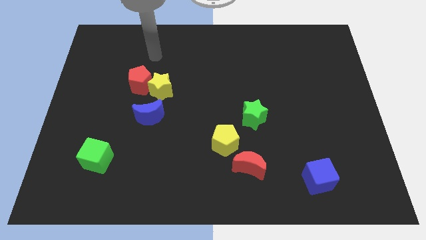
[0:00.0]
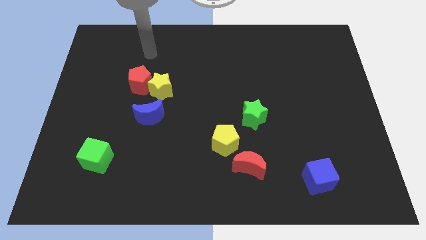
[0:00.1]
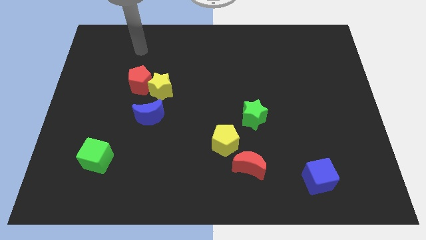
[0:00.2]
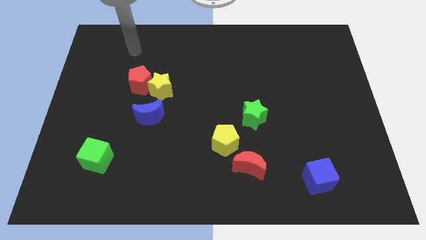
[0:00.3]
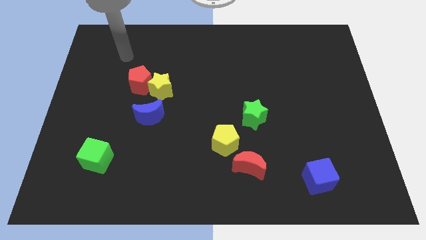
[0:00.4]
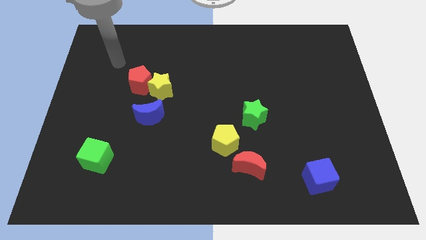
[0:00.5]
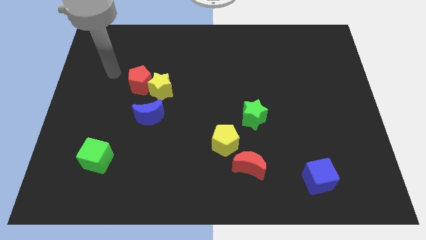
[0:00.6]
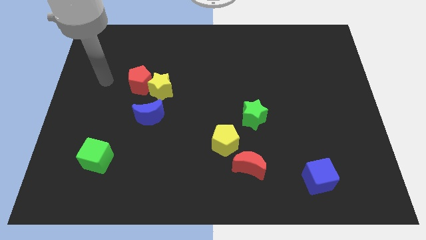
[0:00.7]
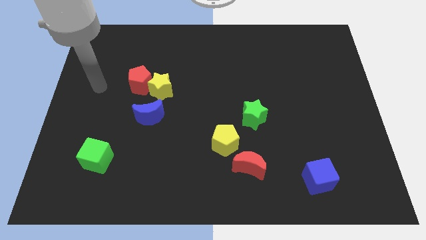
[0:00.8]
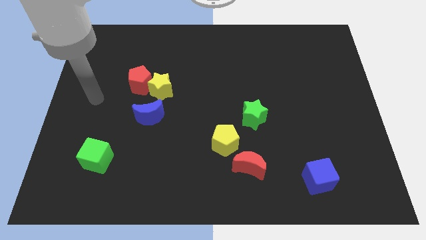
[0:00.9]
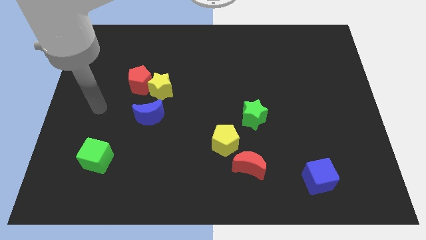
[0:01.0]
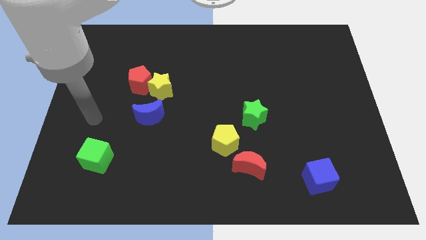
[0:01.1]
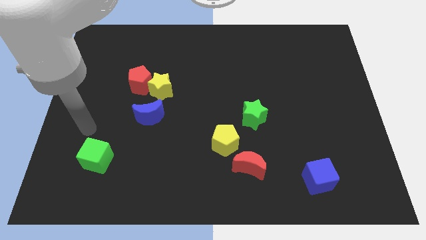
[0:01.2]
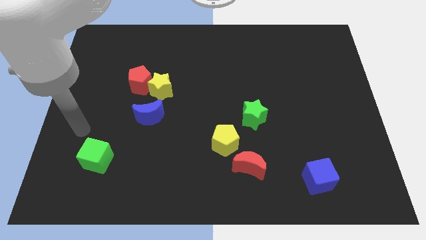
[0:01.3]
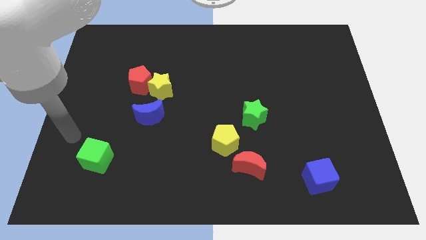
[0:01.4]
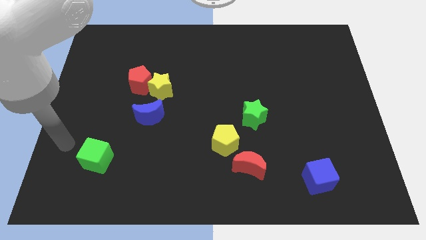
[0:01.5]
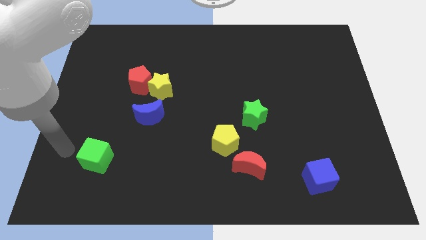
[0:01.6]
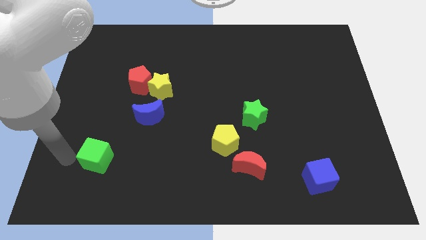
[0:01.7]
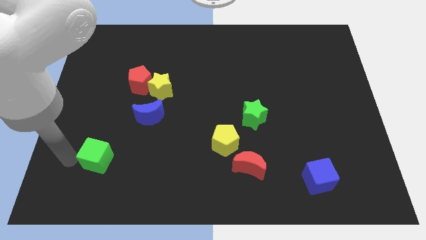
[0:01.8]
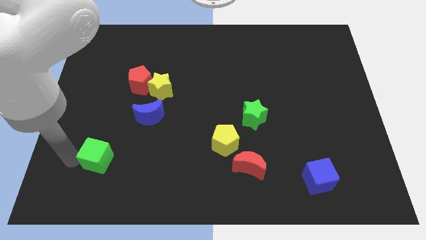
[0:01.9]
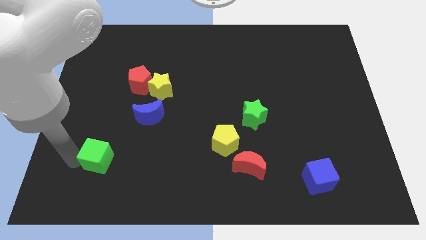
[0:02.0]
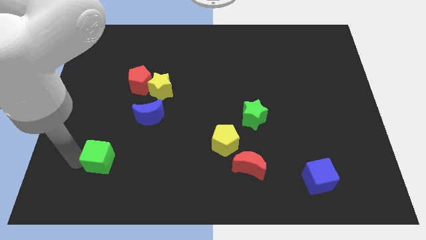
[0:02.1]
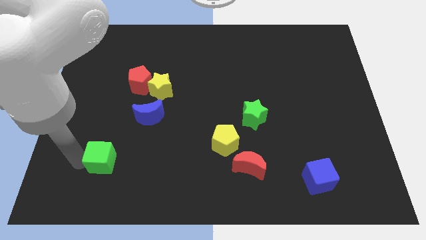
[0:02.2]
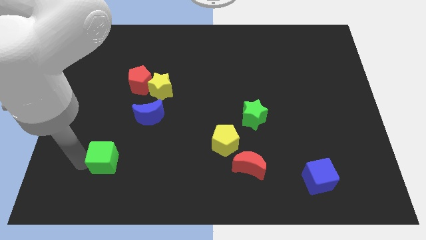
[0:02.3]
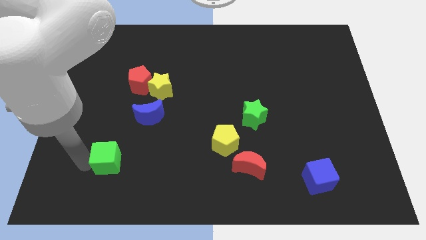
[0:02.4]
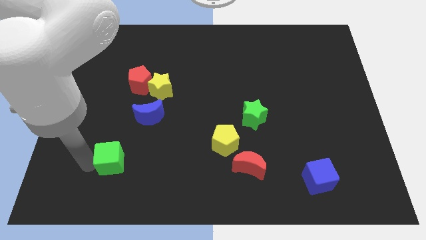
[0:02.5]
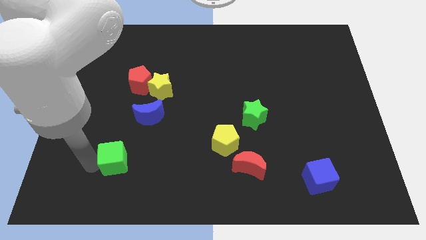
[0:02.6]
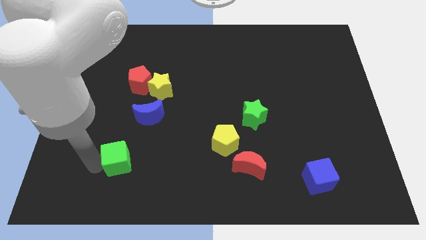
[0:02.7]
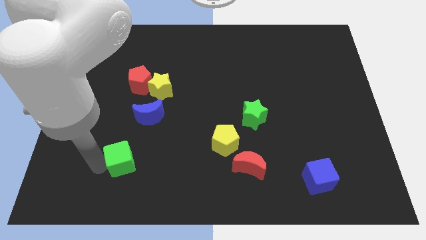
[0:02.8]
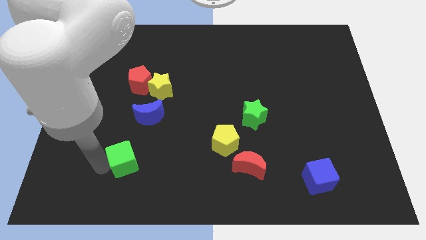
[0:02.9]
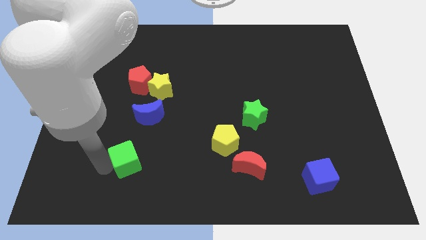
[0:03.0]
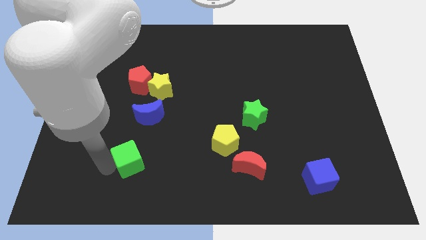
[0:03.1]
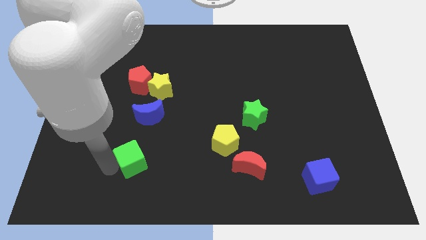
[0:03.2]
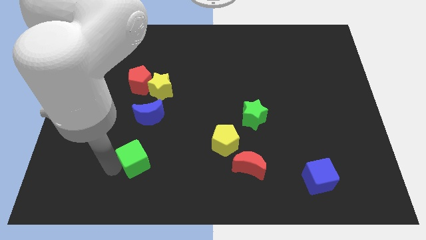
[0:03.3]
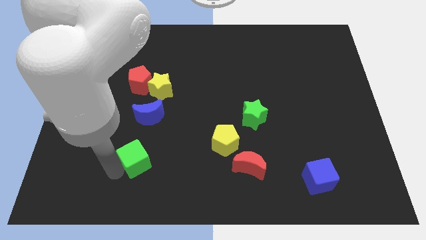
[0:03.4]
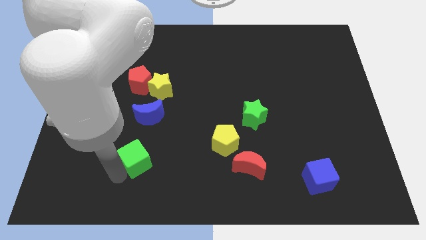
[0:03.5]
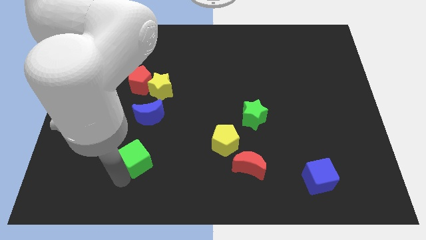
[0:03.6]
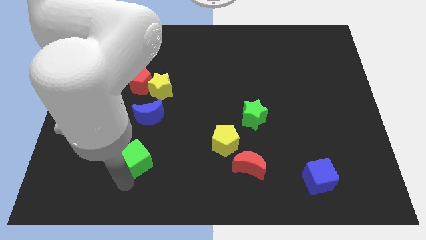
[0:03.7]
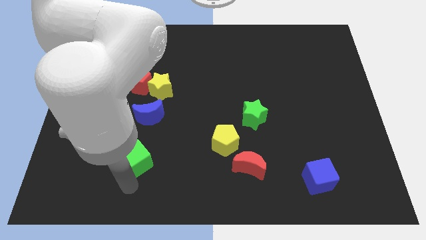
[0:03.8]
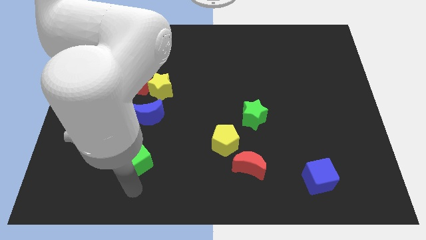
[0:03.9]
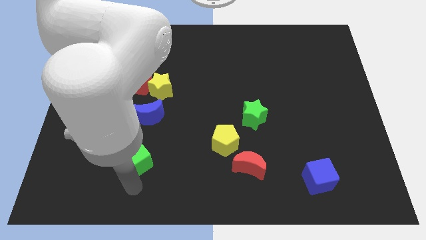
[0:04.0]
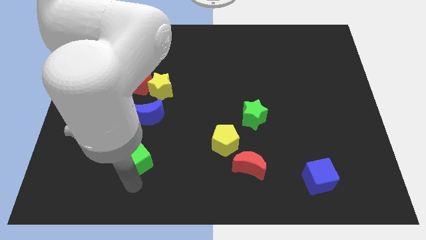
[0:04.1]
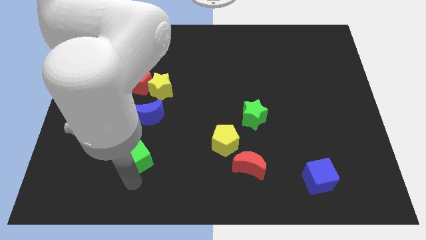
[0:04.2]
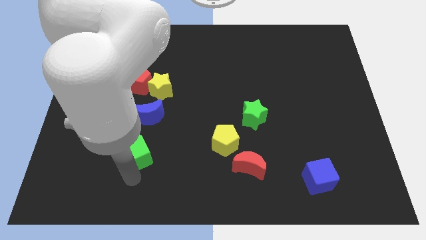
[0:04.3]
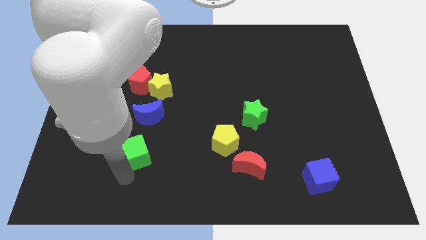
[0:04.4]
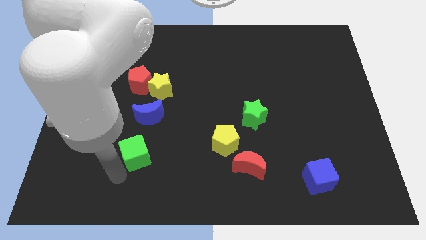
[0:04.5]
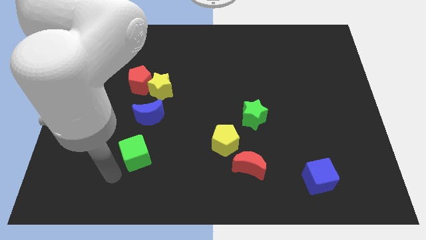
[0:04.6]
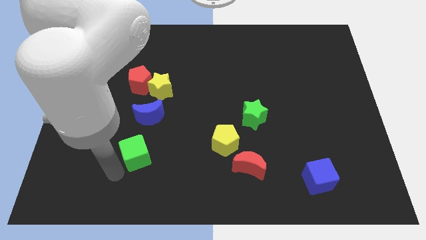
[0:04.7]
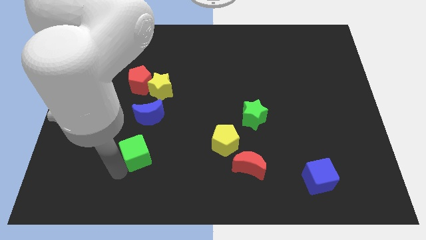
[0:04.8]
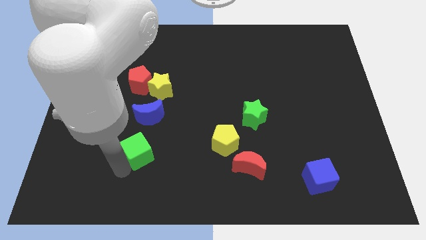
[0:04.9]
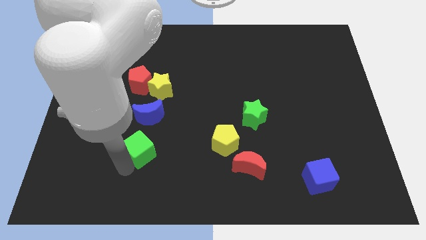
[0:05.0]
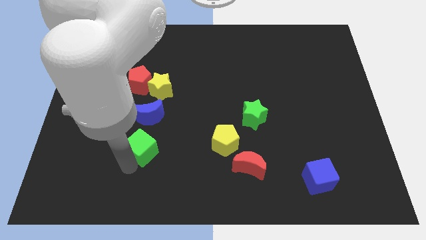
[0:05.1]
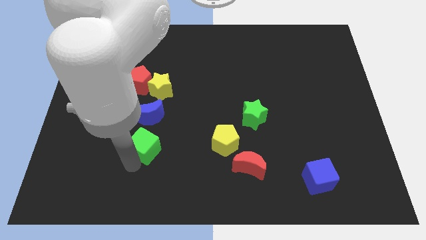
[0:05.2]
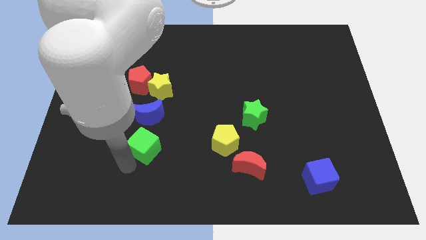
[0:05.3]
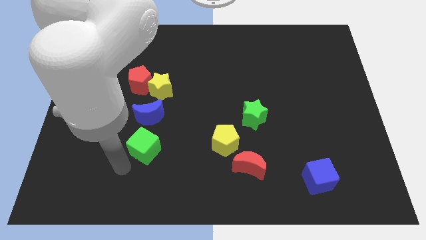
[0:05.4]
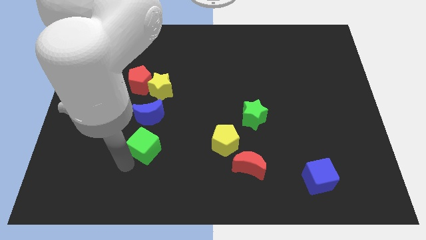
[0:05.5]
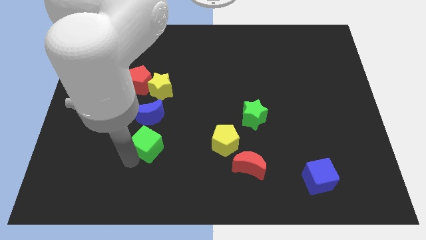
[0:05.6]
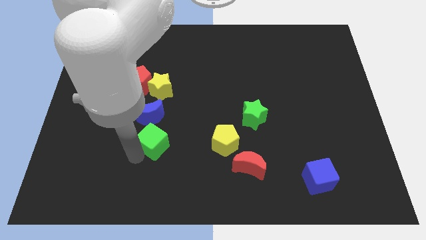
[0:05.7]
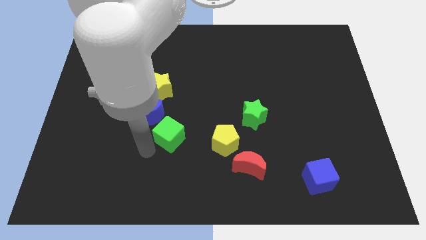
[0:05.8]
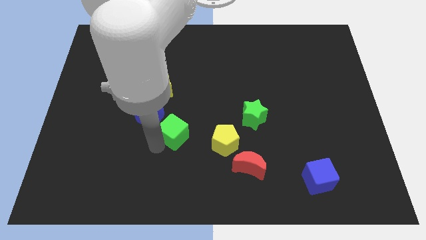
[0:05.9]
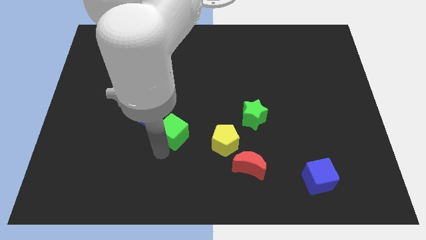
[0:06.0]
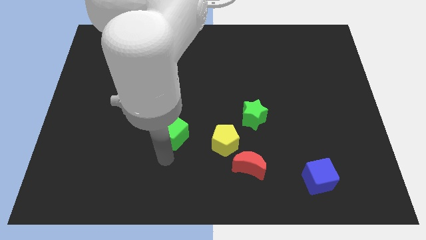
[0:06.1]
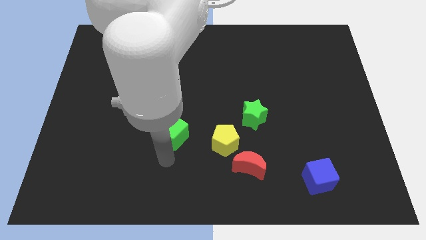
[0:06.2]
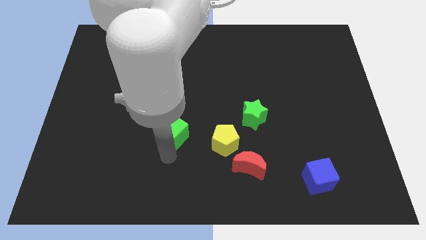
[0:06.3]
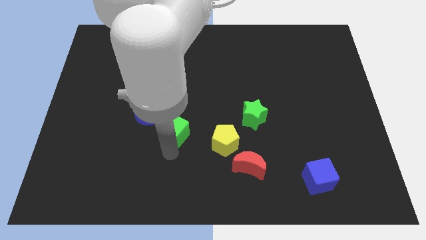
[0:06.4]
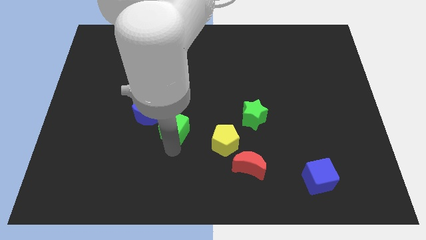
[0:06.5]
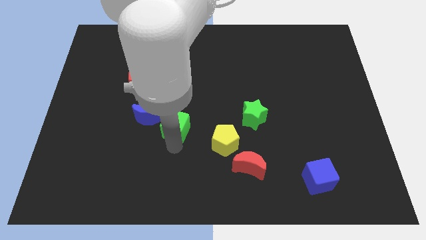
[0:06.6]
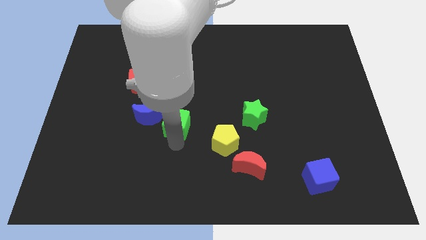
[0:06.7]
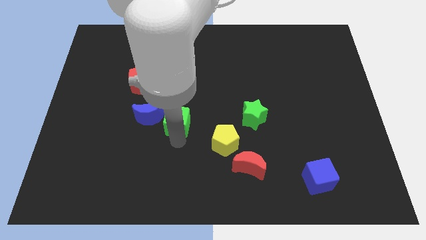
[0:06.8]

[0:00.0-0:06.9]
move the green cube diagonally down and to the right of the yellow star

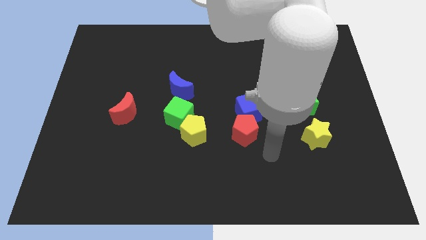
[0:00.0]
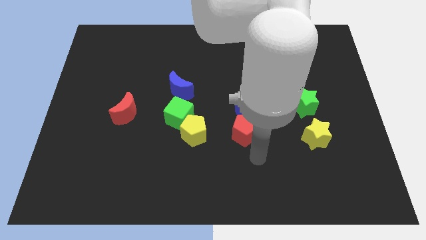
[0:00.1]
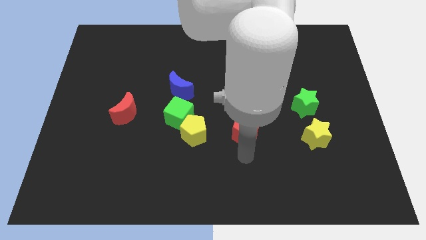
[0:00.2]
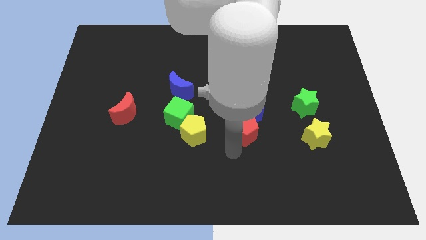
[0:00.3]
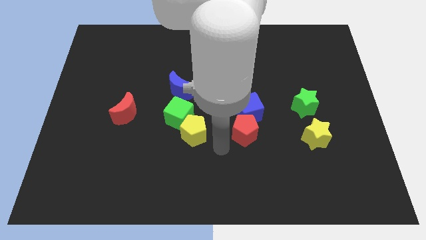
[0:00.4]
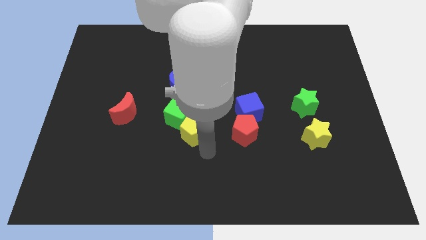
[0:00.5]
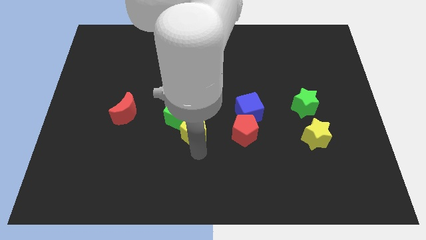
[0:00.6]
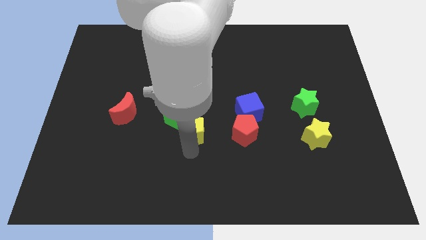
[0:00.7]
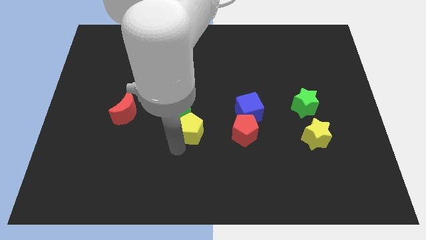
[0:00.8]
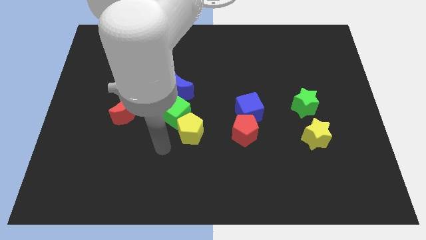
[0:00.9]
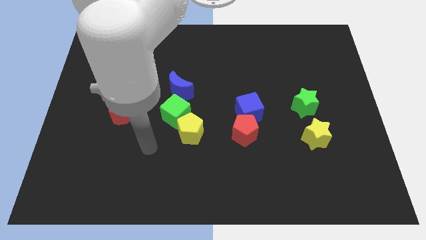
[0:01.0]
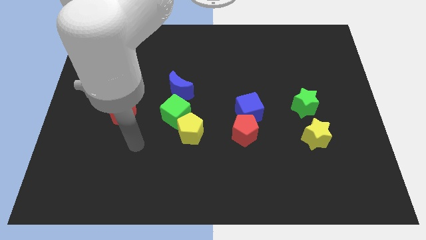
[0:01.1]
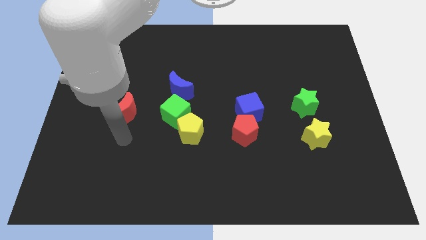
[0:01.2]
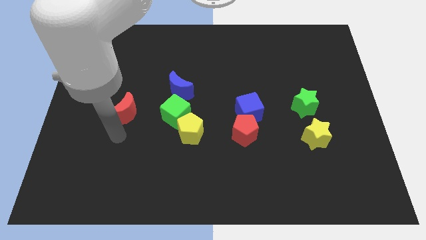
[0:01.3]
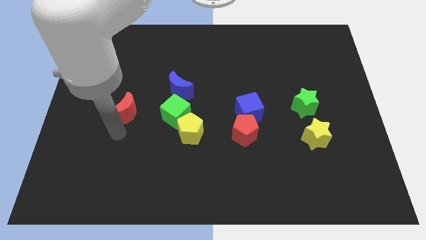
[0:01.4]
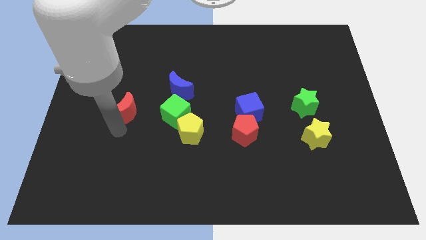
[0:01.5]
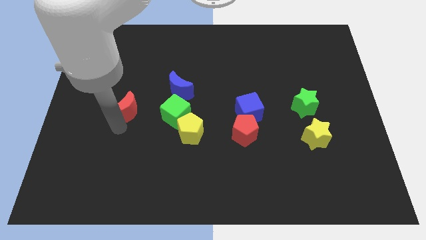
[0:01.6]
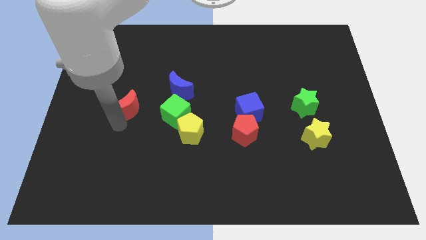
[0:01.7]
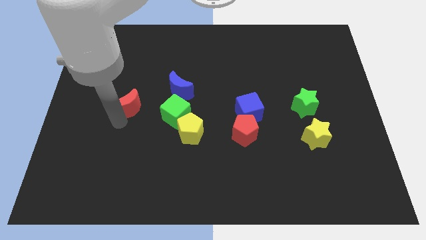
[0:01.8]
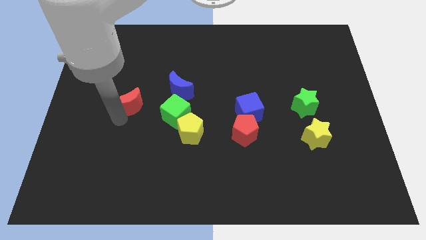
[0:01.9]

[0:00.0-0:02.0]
slide the red moon to the left side of the blue moon
